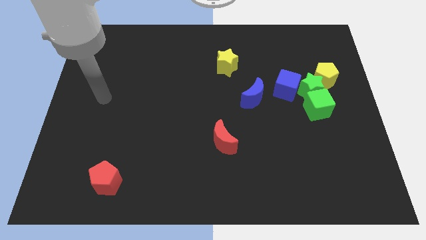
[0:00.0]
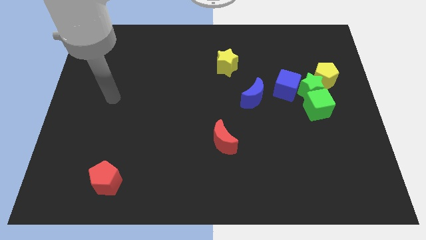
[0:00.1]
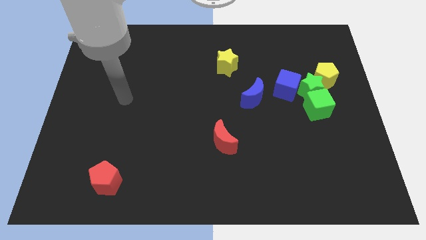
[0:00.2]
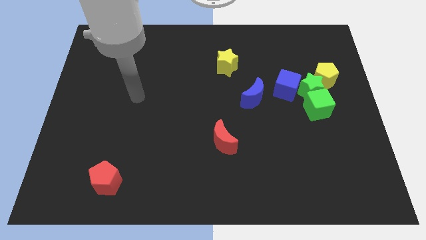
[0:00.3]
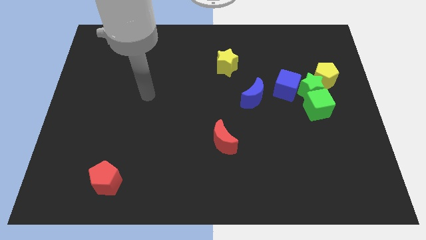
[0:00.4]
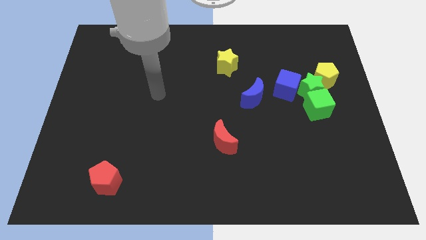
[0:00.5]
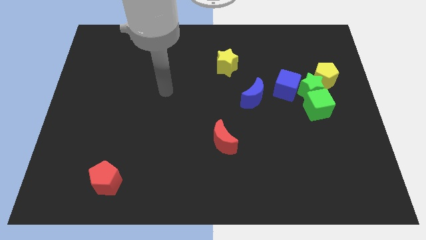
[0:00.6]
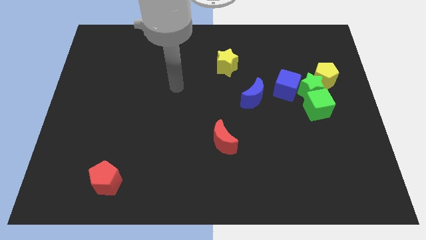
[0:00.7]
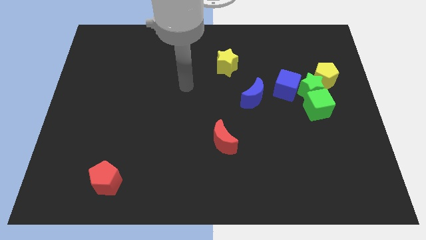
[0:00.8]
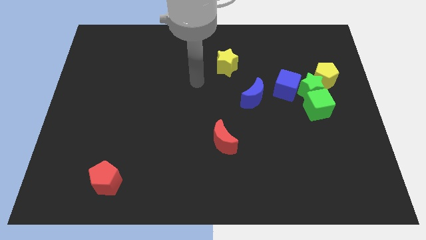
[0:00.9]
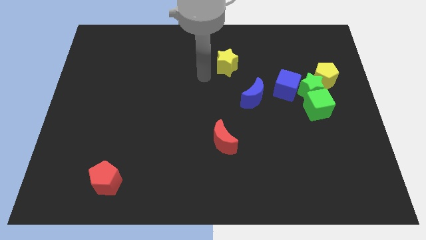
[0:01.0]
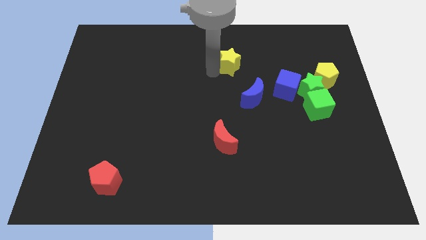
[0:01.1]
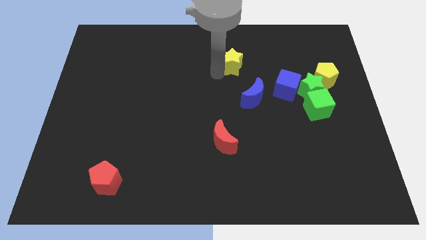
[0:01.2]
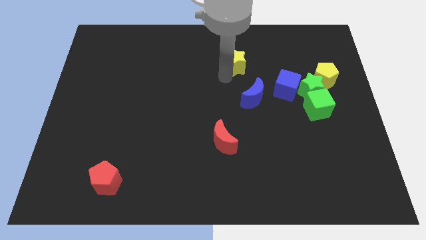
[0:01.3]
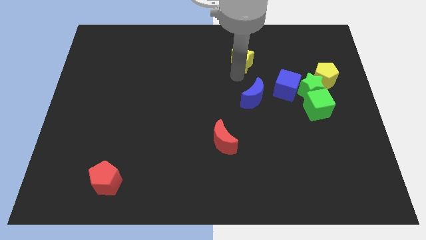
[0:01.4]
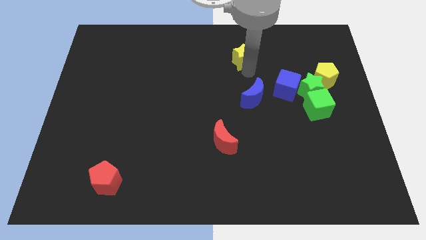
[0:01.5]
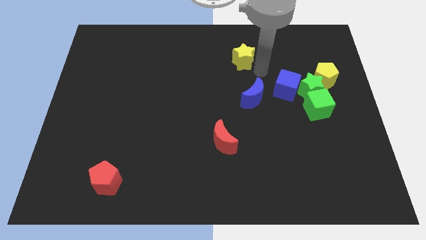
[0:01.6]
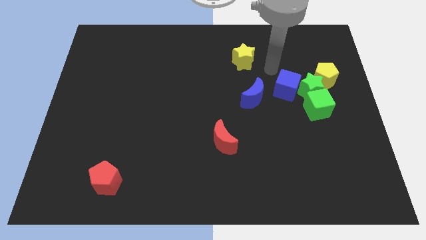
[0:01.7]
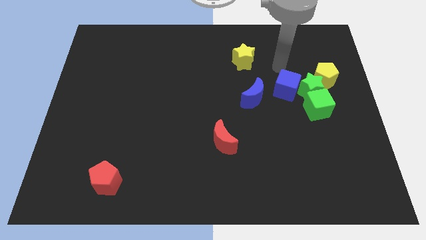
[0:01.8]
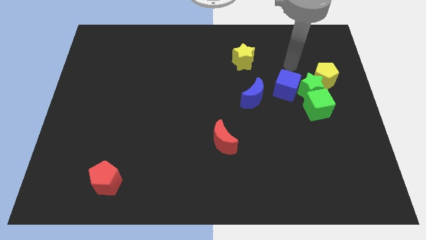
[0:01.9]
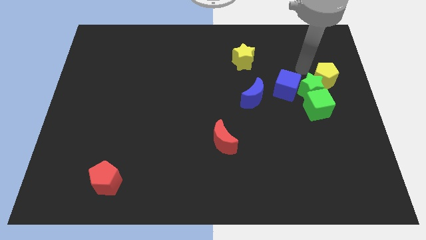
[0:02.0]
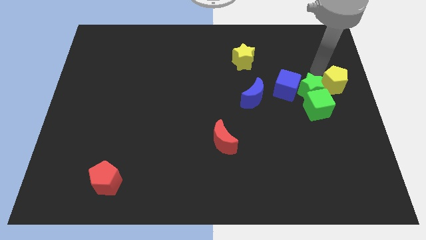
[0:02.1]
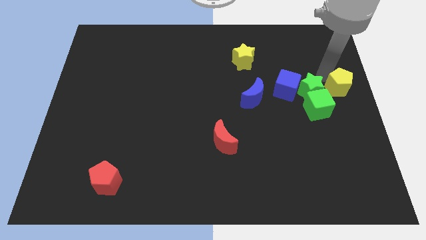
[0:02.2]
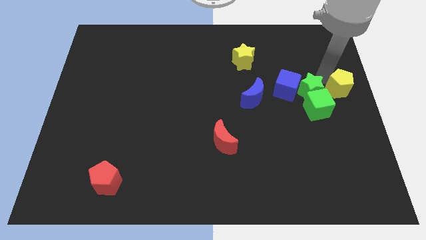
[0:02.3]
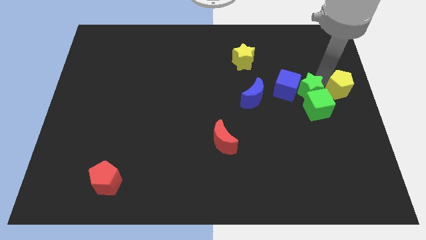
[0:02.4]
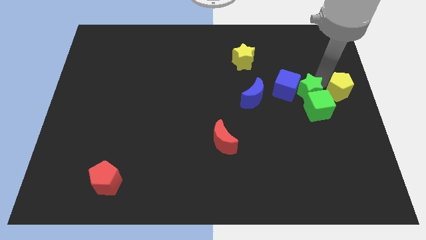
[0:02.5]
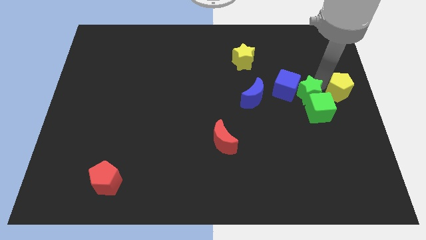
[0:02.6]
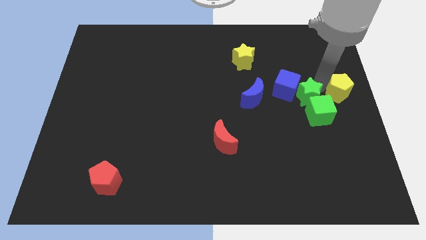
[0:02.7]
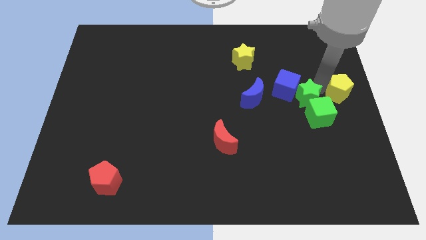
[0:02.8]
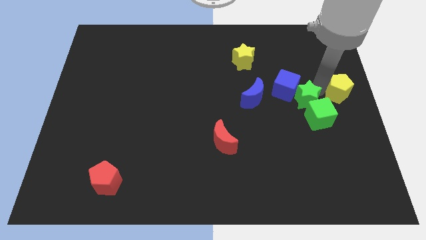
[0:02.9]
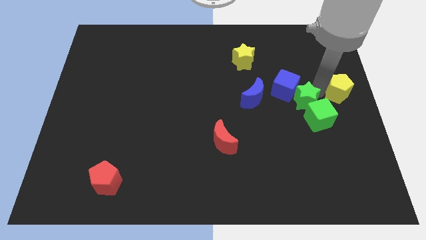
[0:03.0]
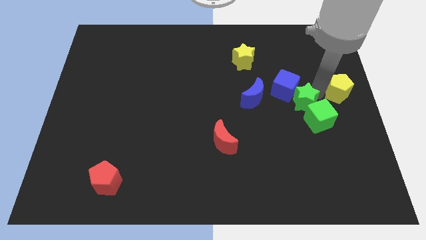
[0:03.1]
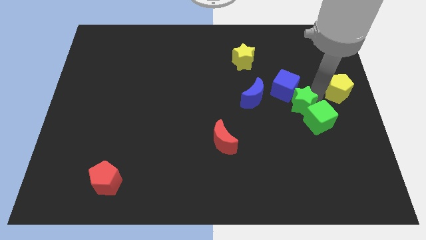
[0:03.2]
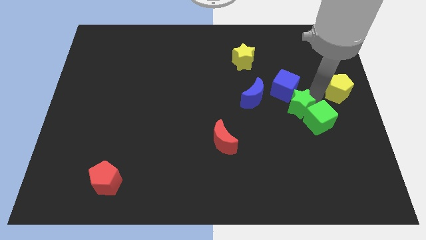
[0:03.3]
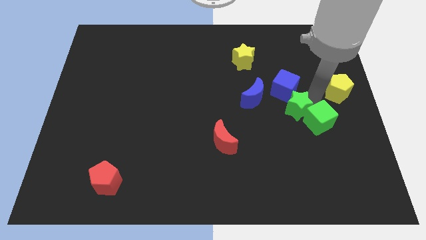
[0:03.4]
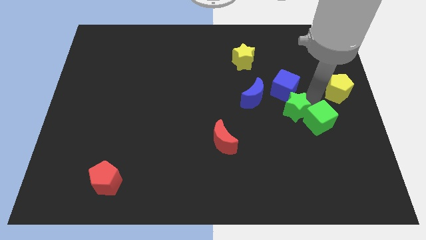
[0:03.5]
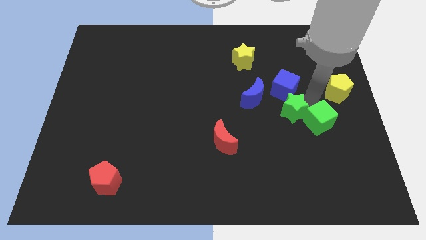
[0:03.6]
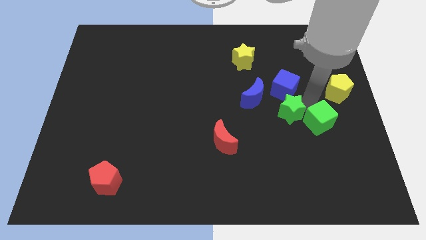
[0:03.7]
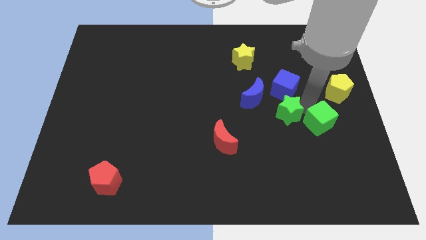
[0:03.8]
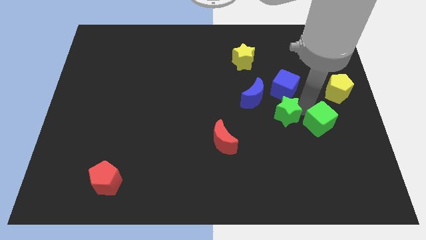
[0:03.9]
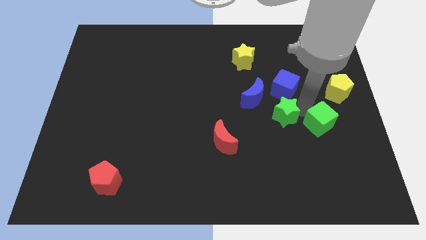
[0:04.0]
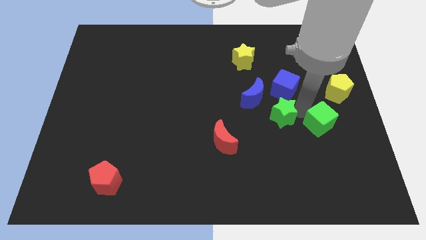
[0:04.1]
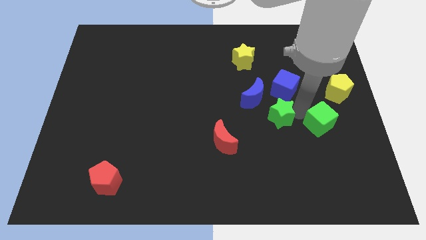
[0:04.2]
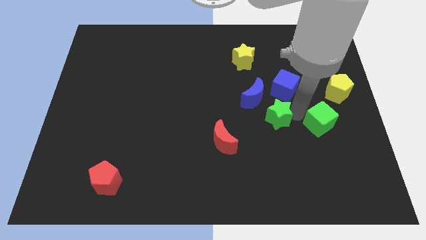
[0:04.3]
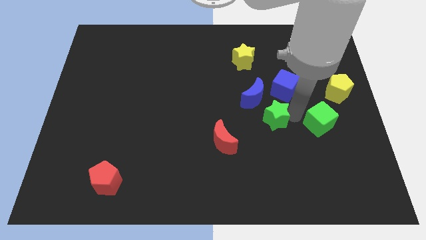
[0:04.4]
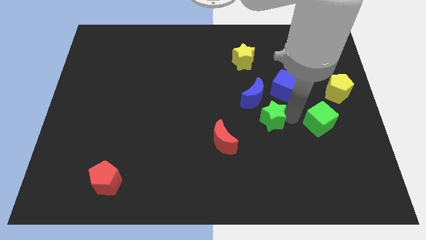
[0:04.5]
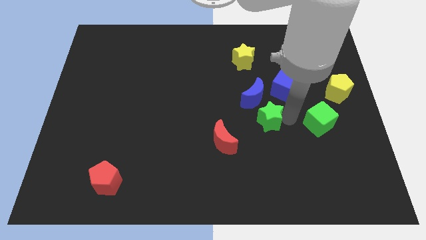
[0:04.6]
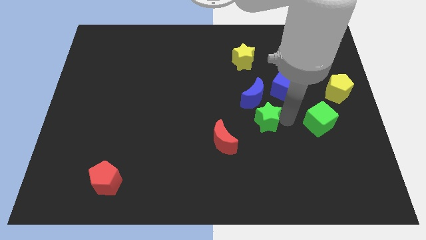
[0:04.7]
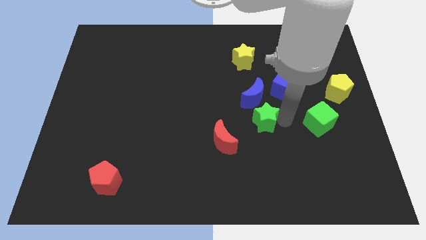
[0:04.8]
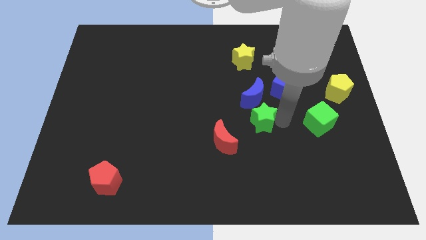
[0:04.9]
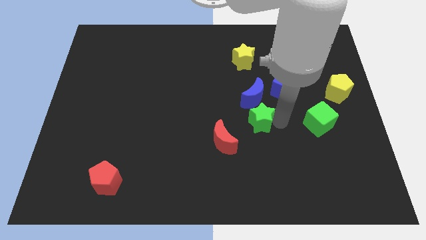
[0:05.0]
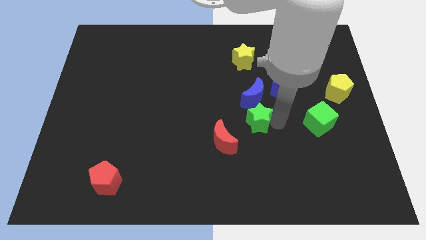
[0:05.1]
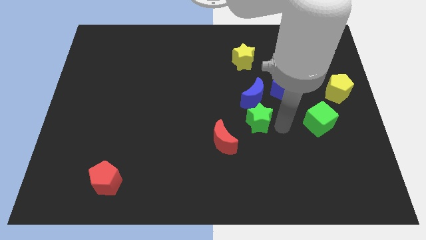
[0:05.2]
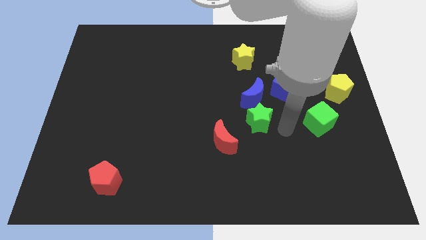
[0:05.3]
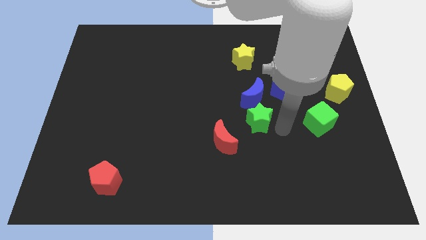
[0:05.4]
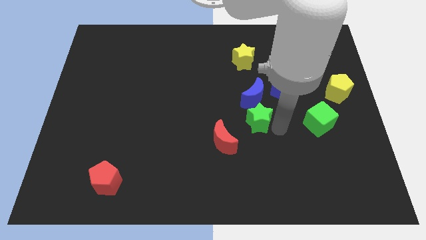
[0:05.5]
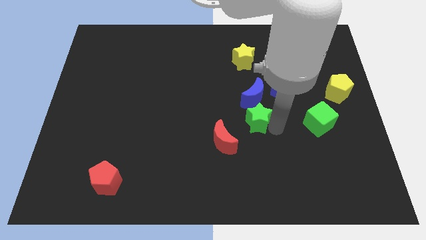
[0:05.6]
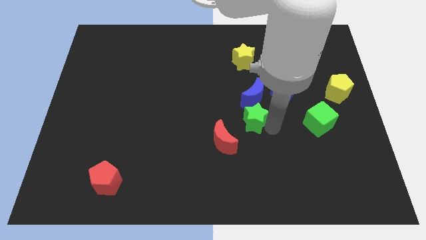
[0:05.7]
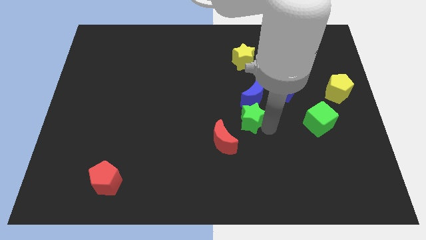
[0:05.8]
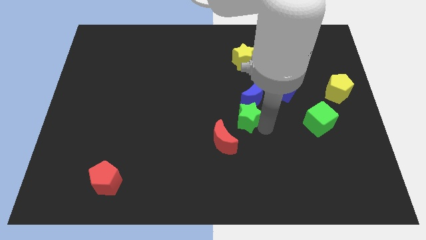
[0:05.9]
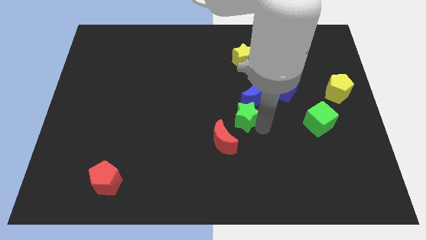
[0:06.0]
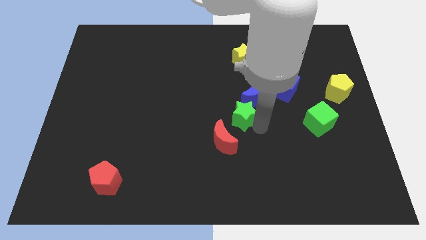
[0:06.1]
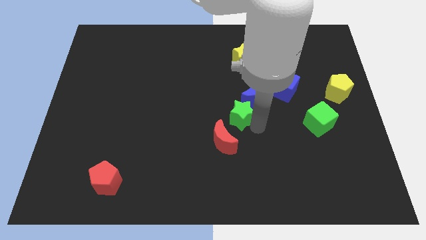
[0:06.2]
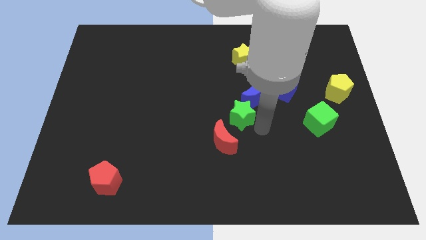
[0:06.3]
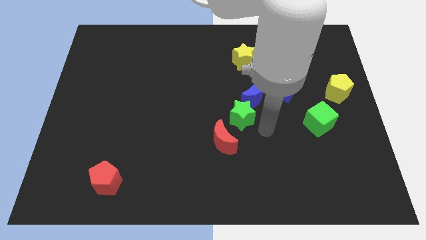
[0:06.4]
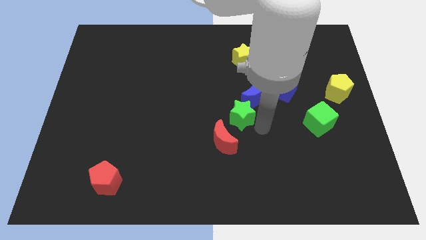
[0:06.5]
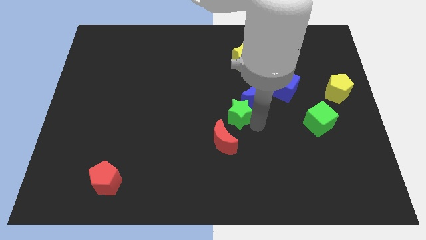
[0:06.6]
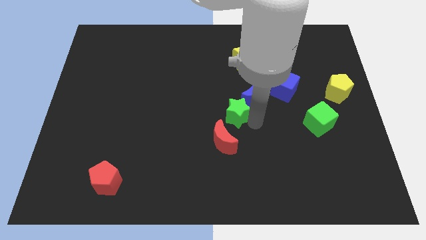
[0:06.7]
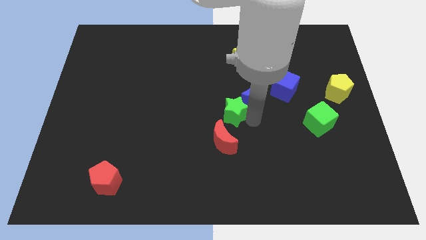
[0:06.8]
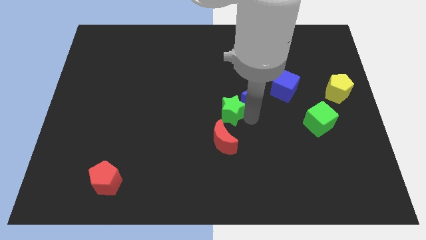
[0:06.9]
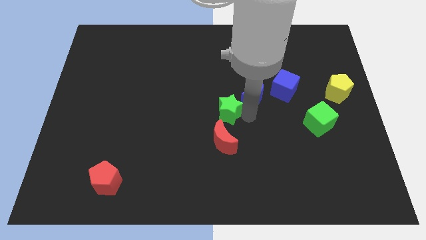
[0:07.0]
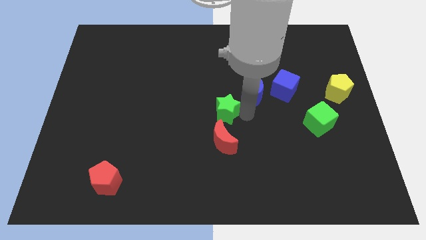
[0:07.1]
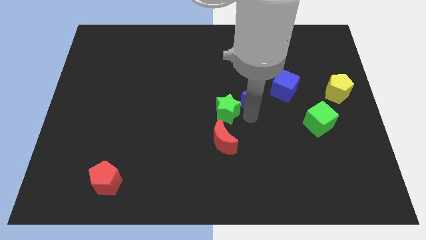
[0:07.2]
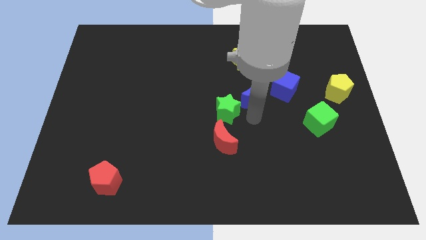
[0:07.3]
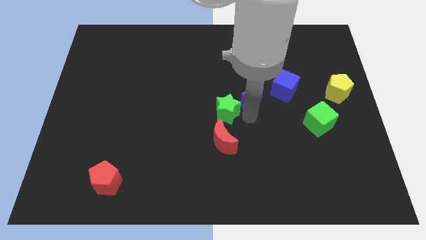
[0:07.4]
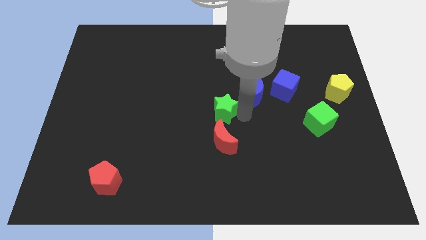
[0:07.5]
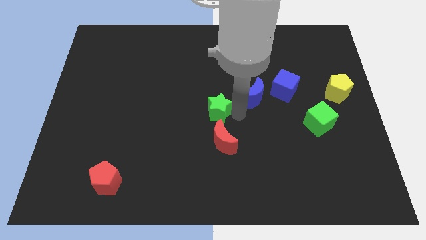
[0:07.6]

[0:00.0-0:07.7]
push the green star to the left

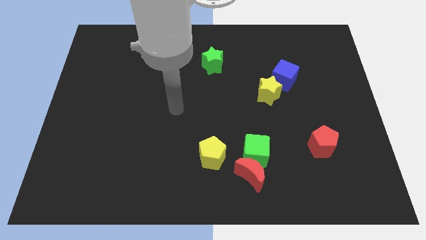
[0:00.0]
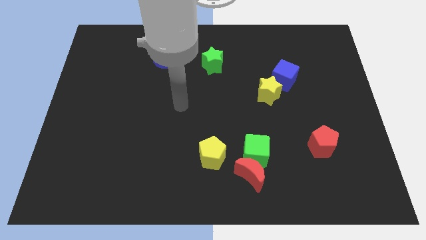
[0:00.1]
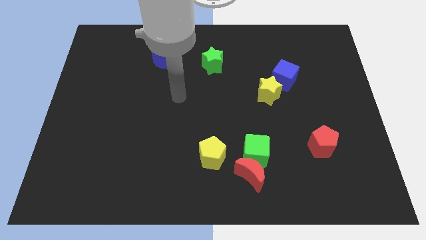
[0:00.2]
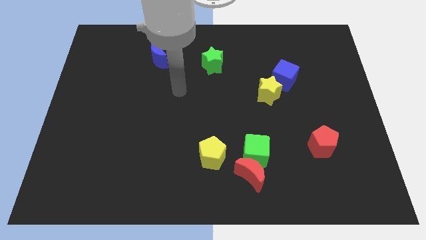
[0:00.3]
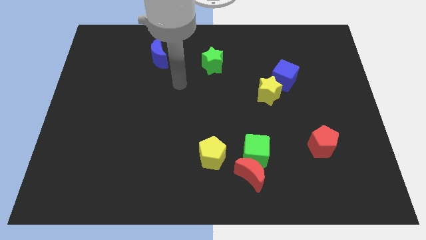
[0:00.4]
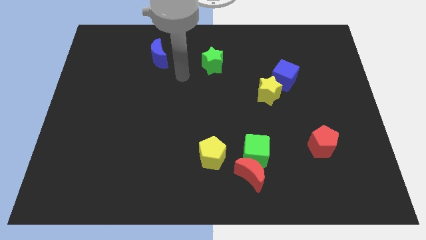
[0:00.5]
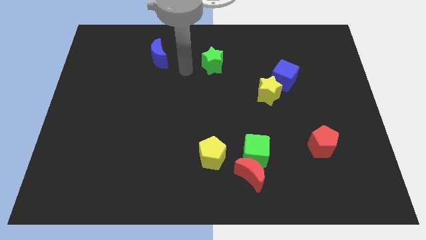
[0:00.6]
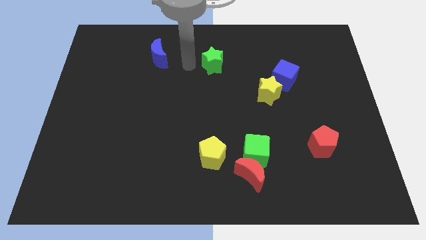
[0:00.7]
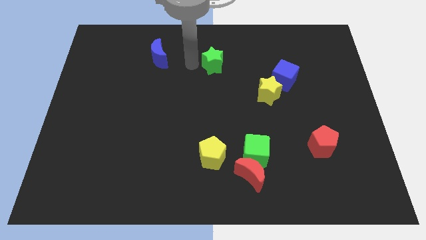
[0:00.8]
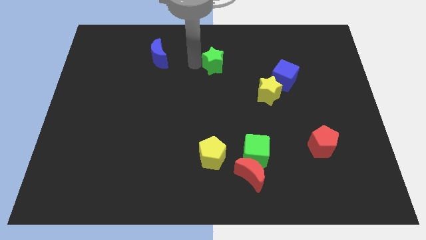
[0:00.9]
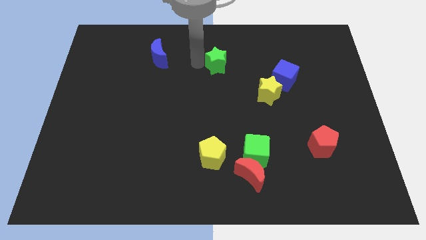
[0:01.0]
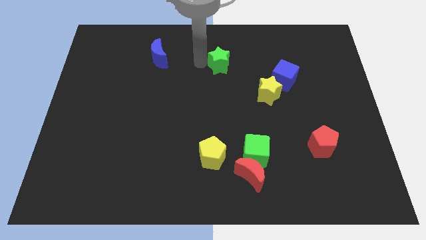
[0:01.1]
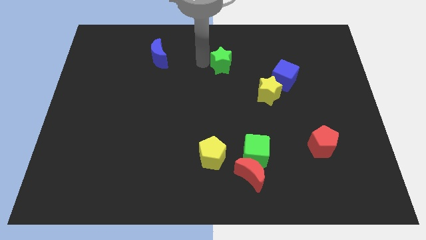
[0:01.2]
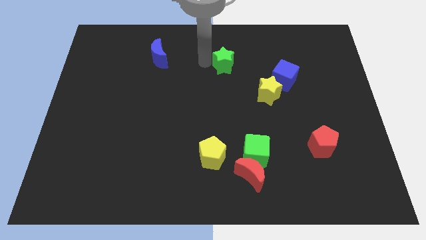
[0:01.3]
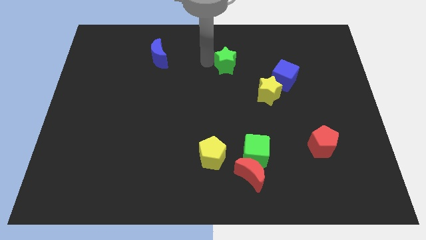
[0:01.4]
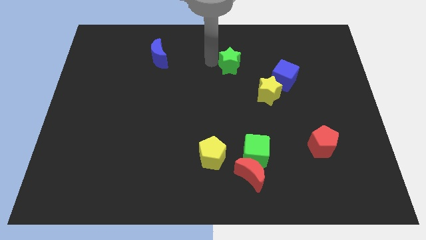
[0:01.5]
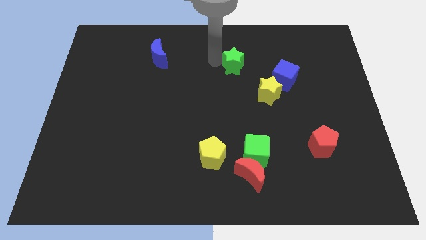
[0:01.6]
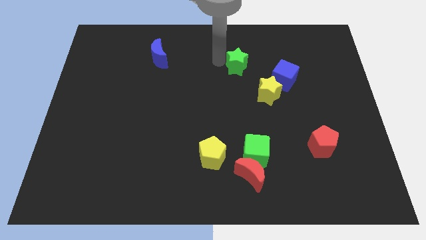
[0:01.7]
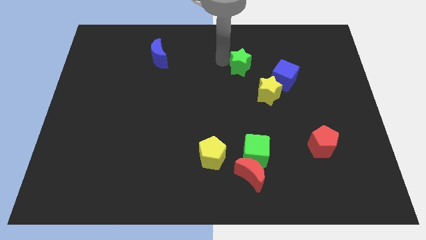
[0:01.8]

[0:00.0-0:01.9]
move the green star to the right a little
